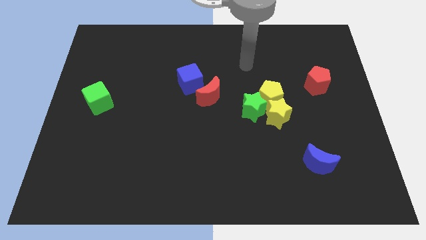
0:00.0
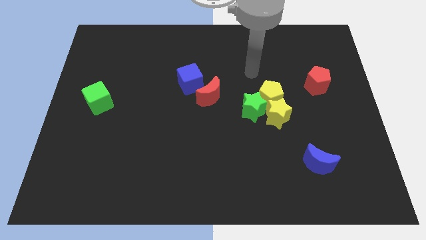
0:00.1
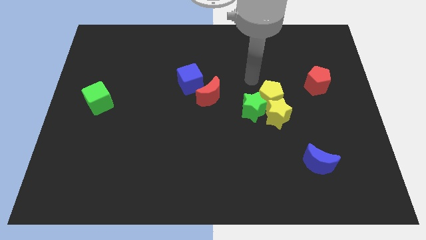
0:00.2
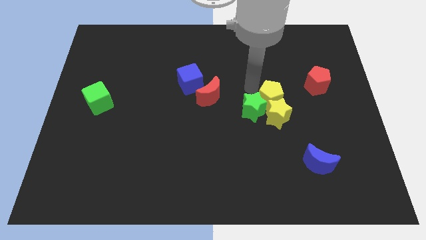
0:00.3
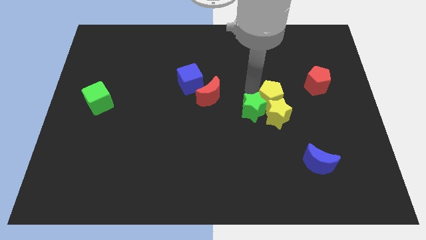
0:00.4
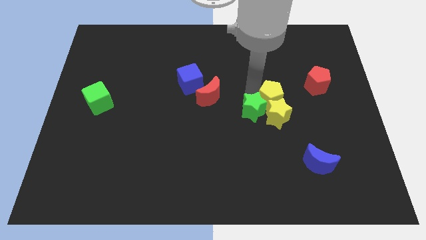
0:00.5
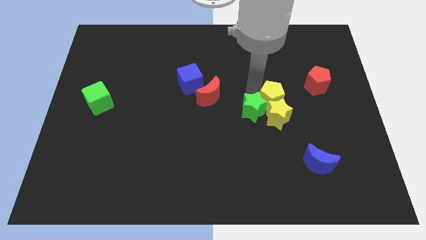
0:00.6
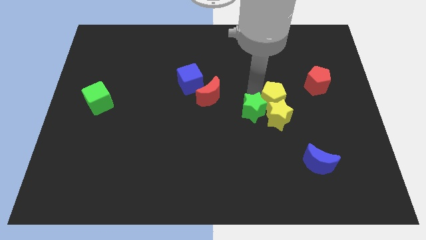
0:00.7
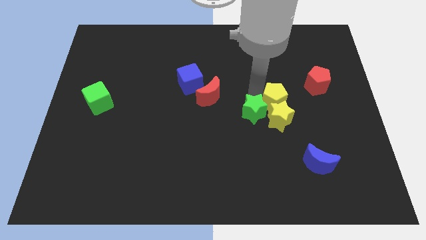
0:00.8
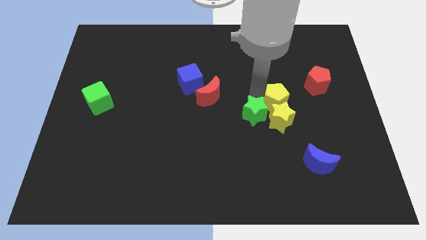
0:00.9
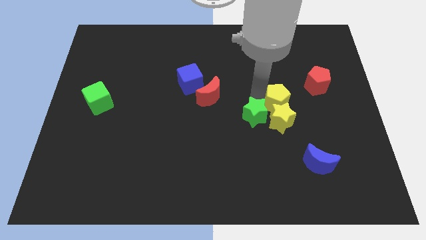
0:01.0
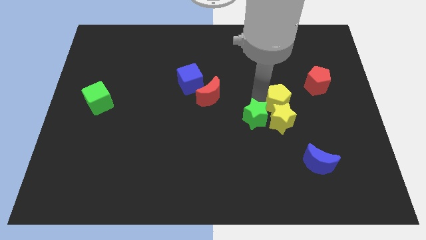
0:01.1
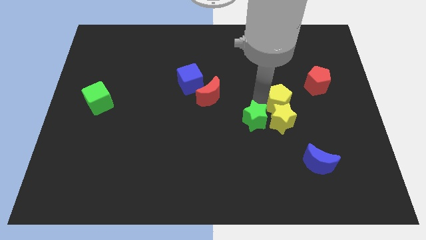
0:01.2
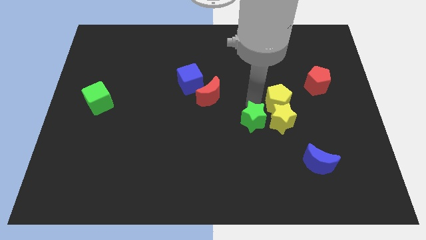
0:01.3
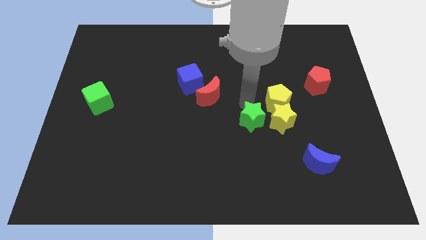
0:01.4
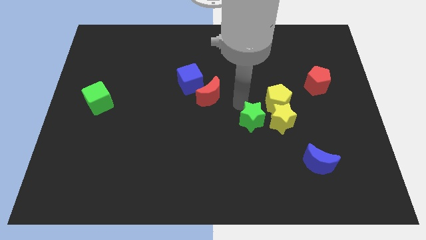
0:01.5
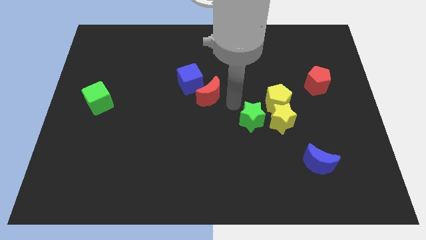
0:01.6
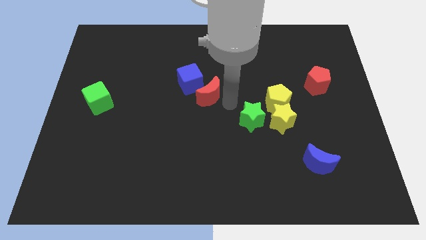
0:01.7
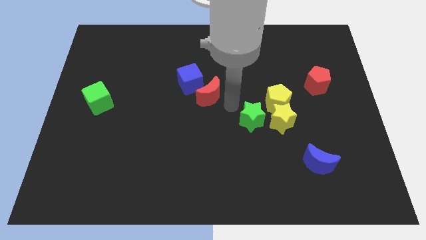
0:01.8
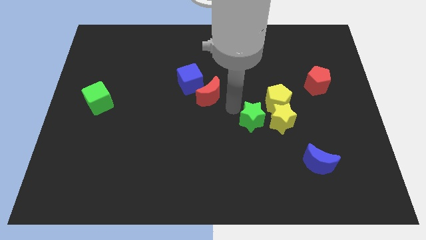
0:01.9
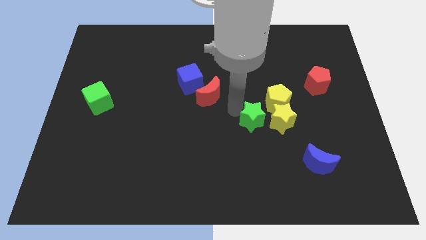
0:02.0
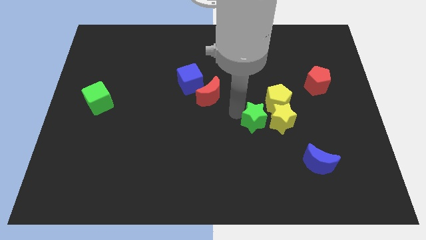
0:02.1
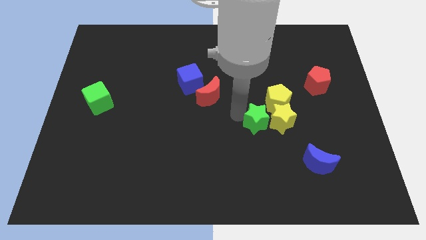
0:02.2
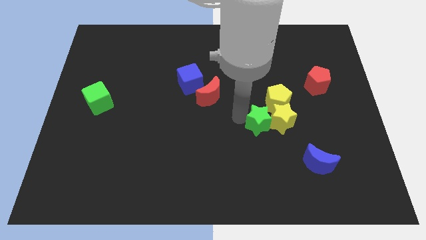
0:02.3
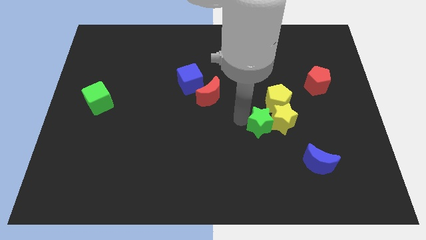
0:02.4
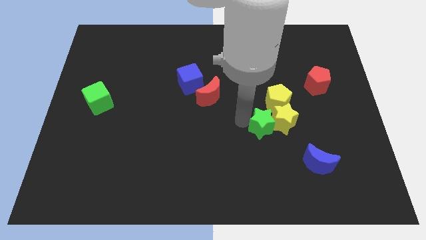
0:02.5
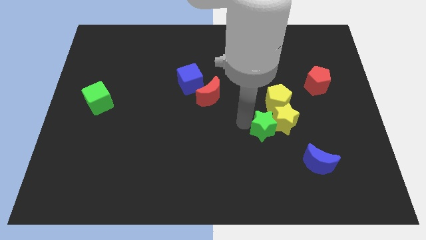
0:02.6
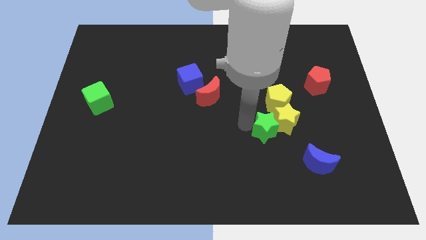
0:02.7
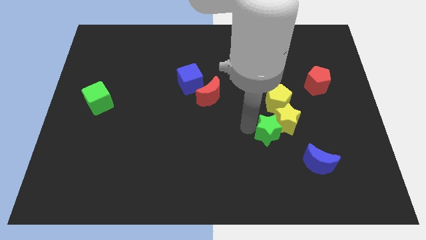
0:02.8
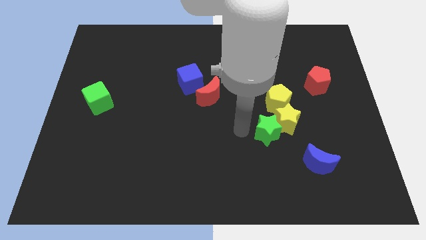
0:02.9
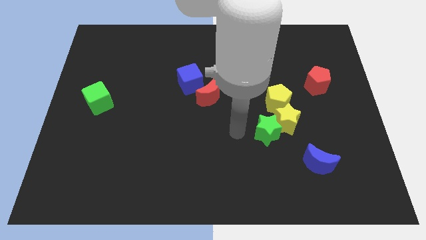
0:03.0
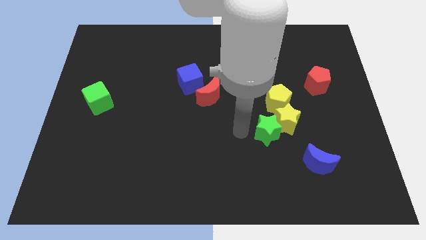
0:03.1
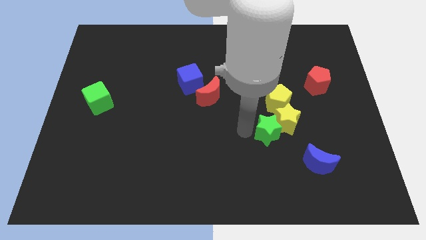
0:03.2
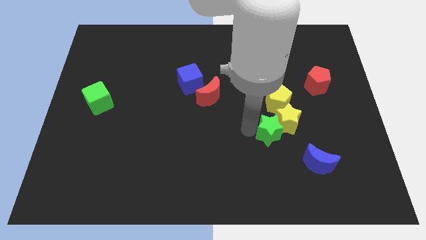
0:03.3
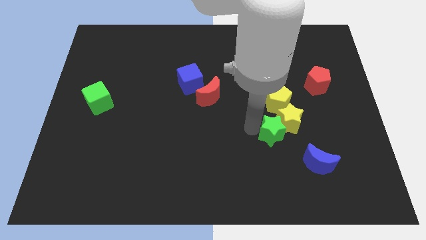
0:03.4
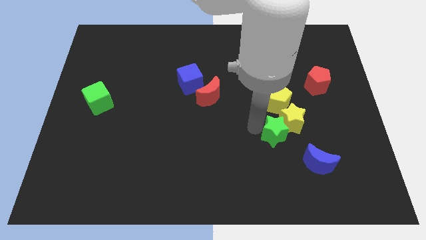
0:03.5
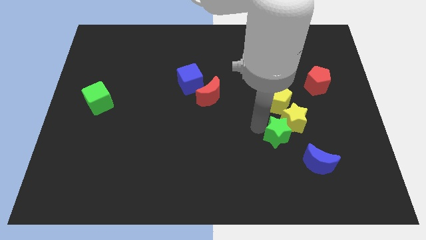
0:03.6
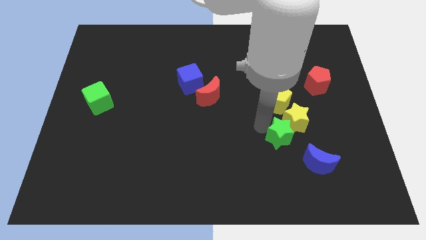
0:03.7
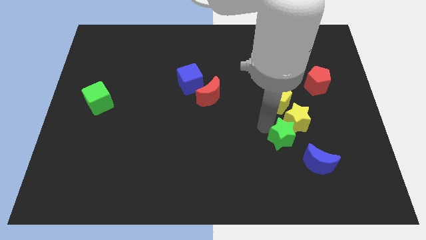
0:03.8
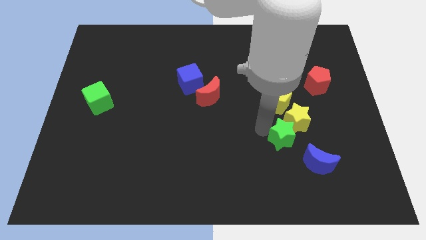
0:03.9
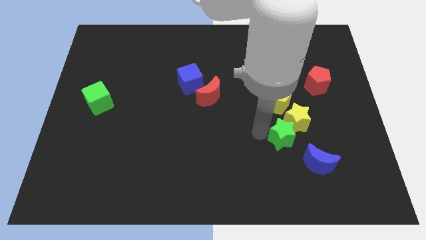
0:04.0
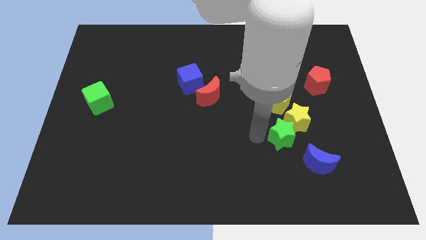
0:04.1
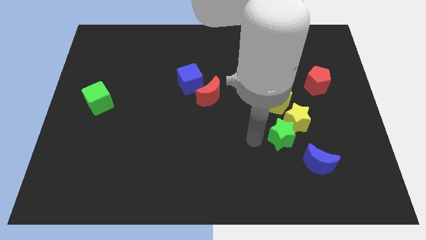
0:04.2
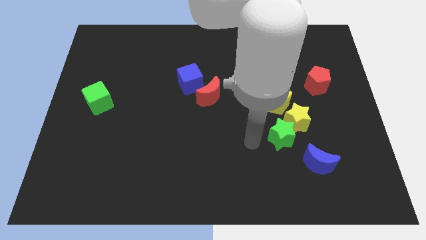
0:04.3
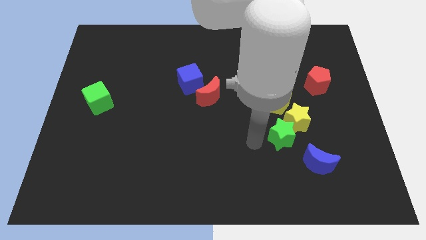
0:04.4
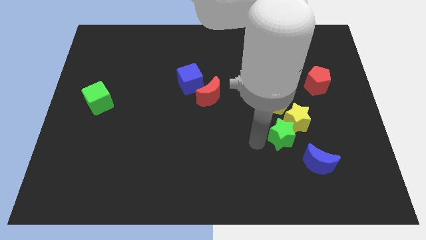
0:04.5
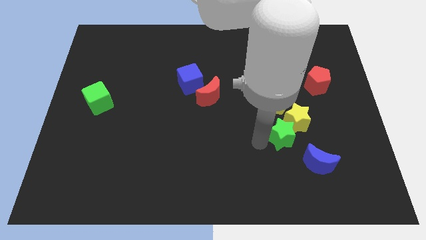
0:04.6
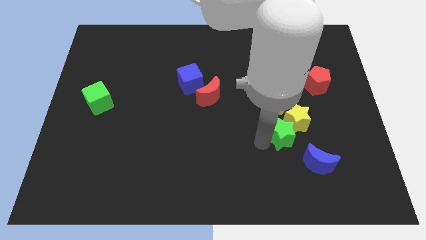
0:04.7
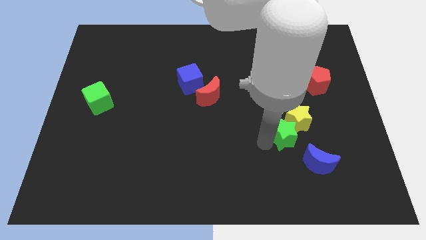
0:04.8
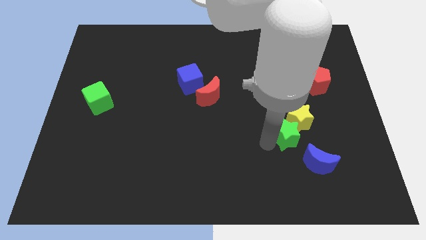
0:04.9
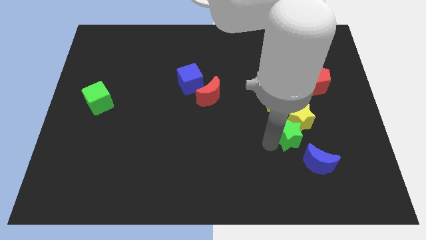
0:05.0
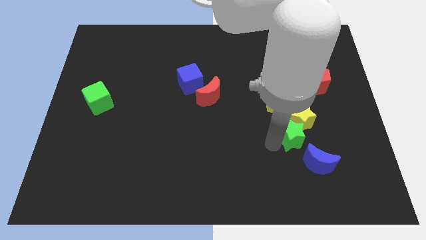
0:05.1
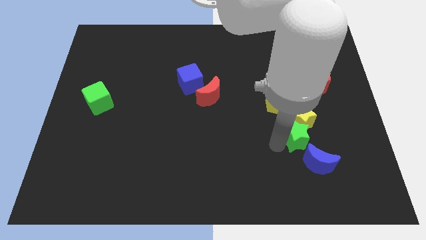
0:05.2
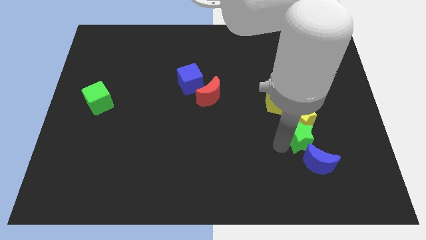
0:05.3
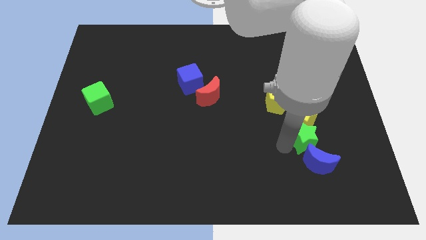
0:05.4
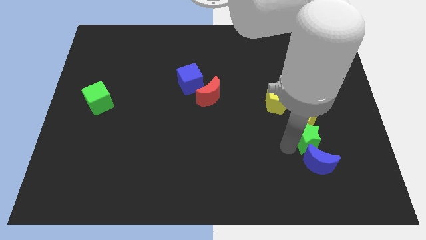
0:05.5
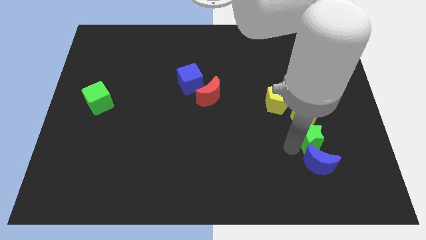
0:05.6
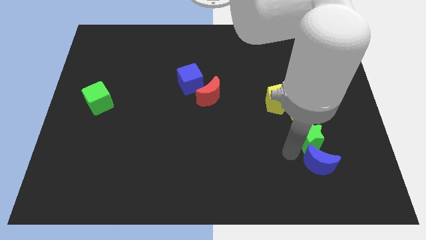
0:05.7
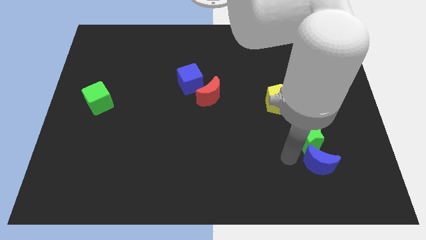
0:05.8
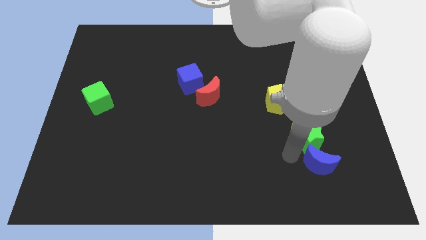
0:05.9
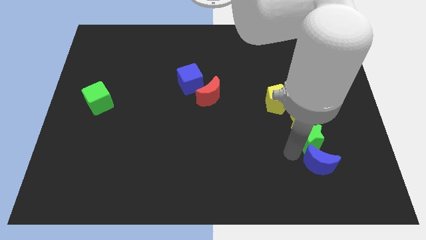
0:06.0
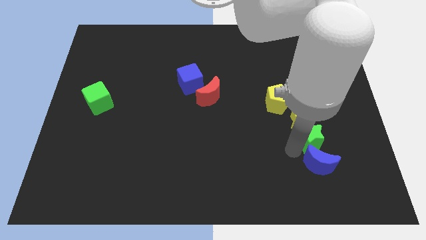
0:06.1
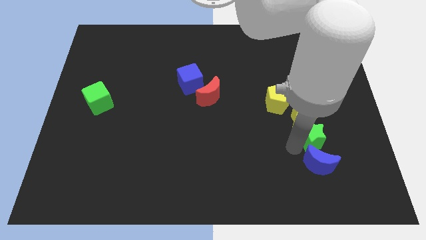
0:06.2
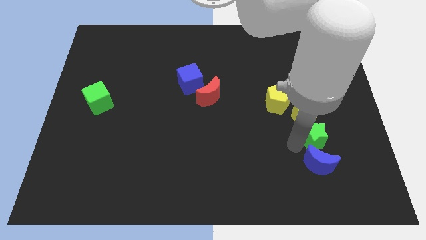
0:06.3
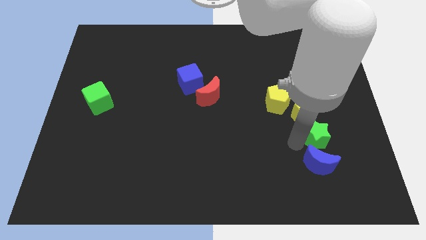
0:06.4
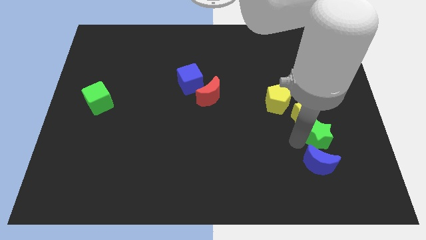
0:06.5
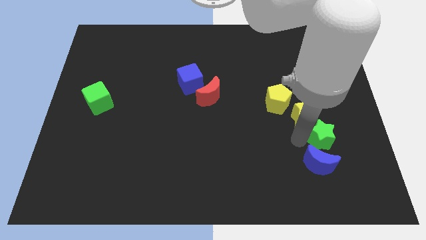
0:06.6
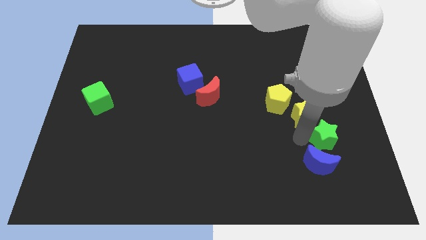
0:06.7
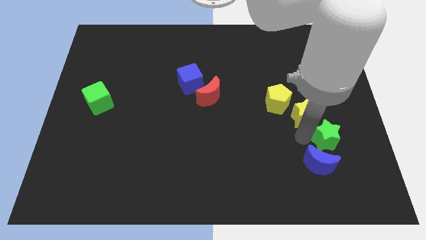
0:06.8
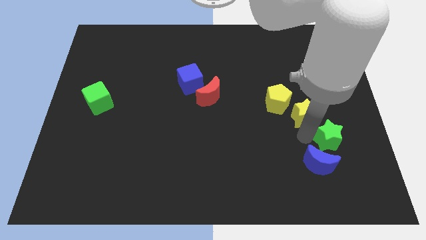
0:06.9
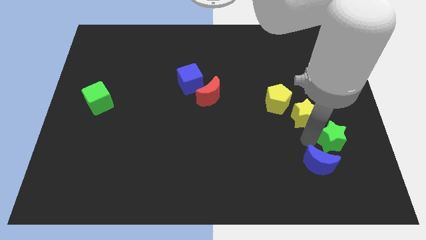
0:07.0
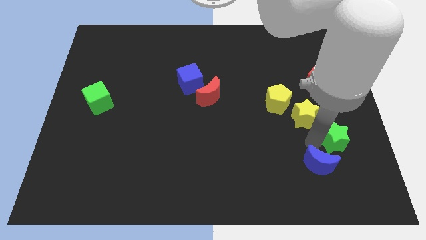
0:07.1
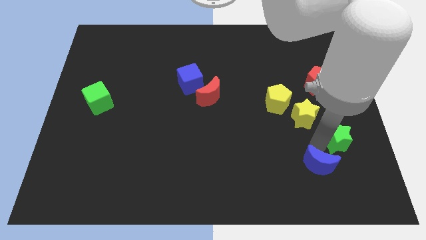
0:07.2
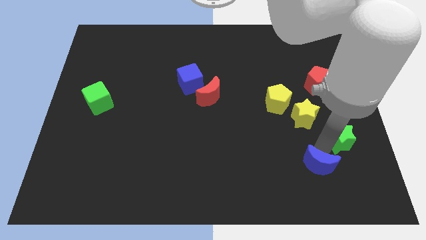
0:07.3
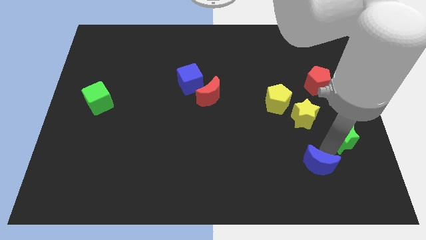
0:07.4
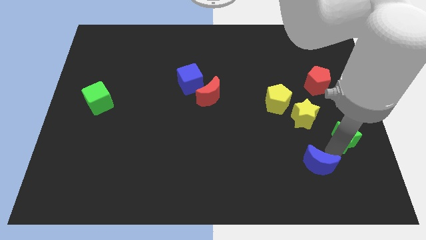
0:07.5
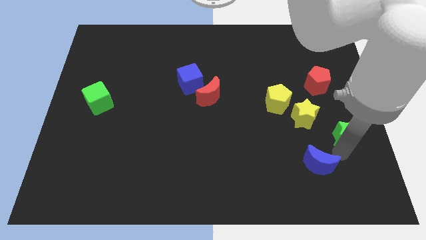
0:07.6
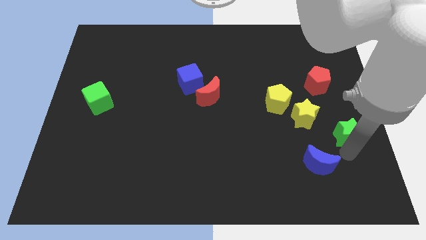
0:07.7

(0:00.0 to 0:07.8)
put the green star to the right side
